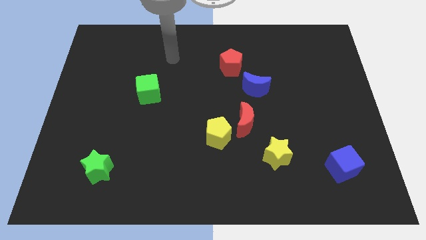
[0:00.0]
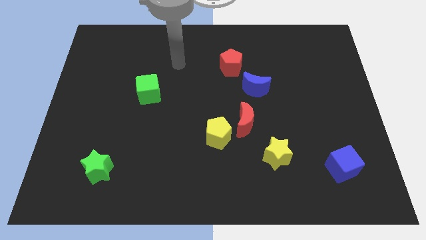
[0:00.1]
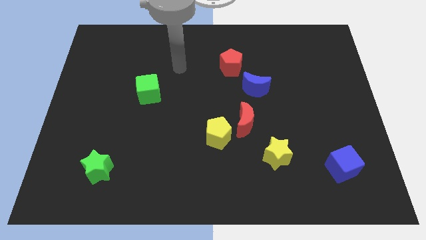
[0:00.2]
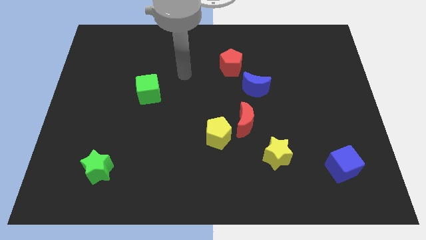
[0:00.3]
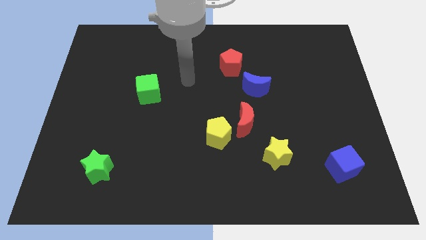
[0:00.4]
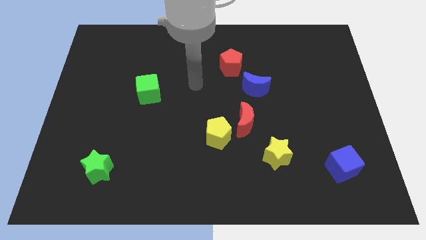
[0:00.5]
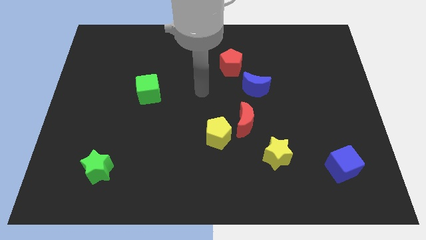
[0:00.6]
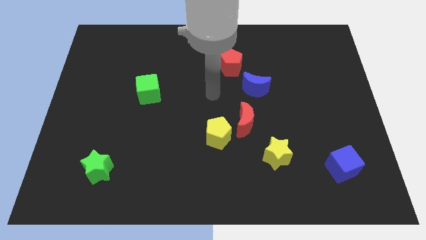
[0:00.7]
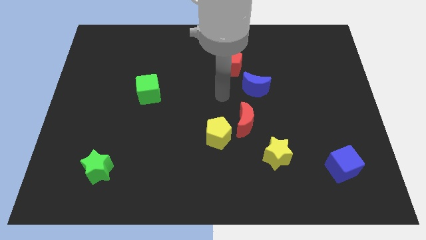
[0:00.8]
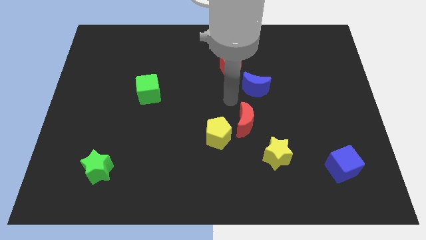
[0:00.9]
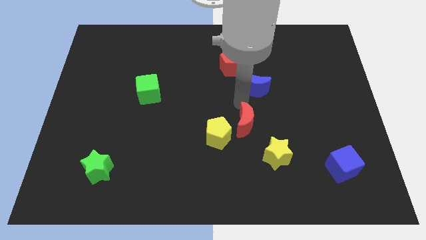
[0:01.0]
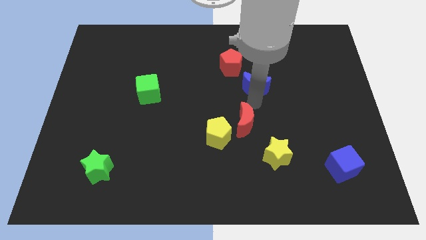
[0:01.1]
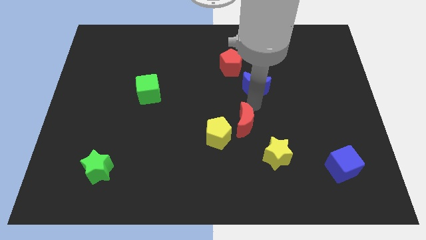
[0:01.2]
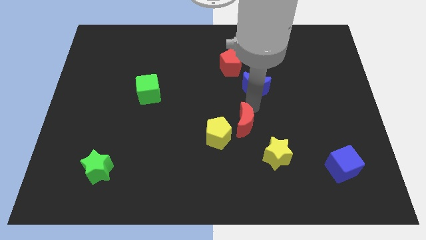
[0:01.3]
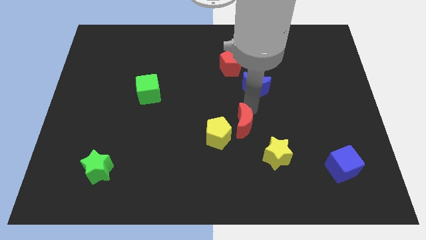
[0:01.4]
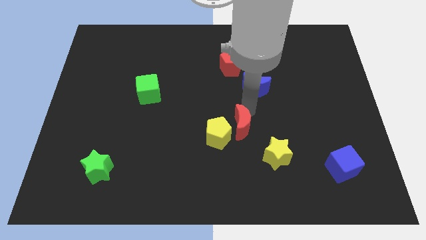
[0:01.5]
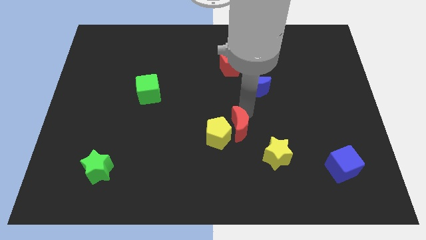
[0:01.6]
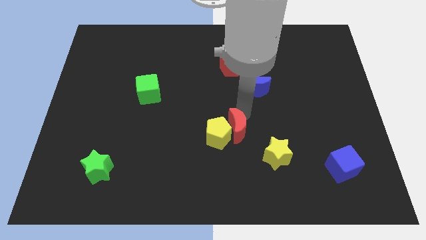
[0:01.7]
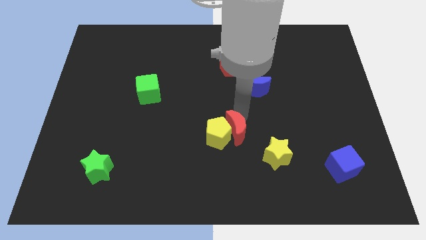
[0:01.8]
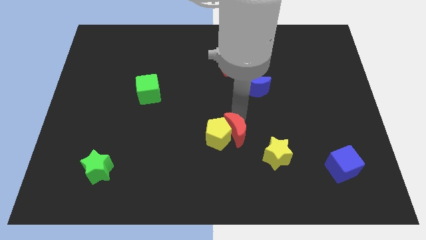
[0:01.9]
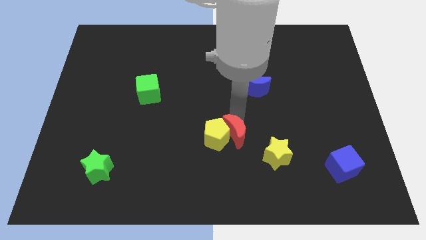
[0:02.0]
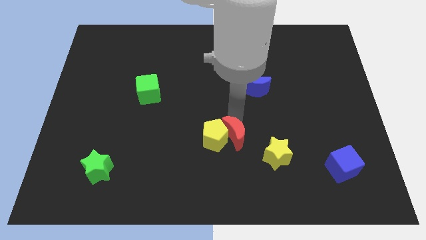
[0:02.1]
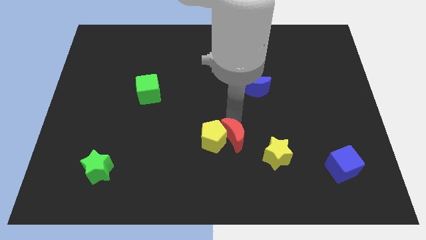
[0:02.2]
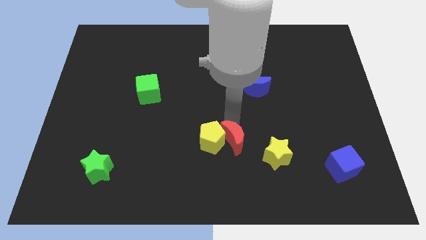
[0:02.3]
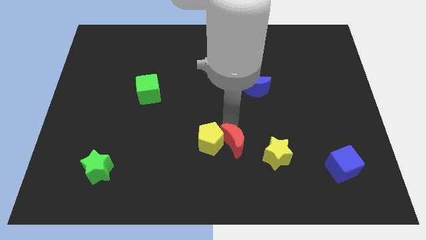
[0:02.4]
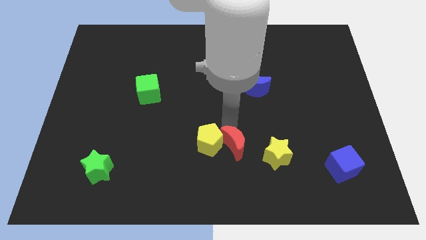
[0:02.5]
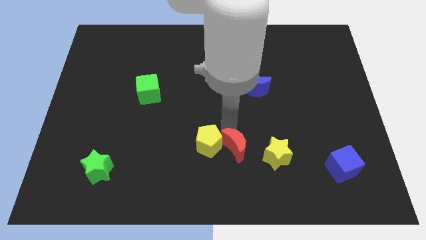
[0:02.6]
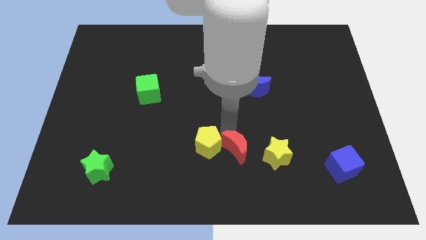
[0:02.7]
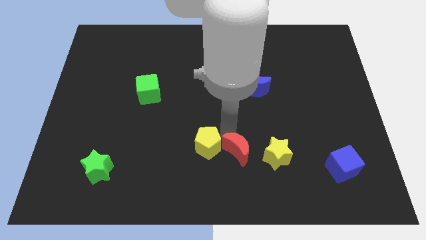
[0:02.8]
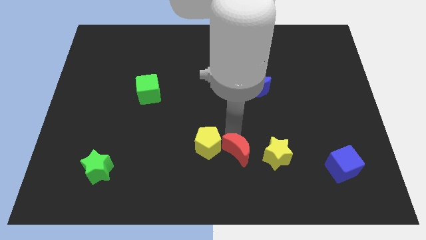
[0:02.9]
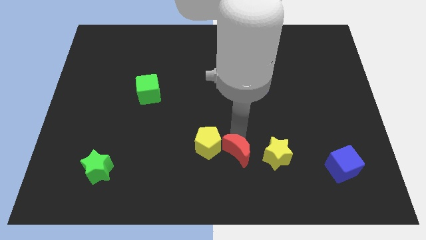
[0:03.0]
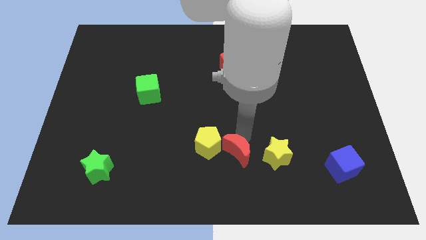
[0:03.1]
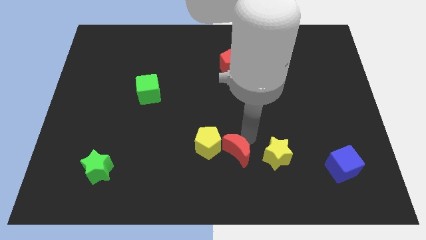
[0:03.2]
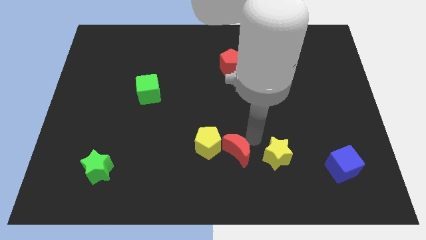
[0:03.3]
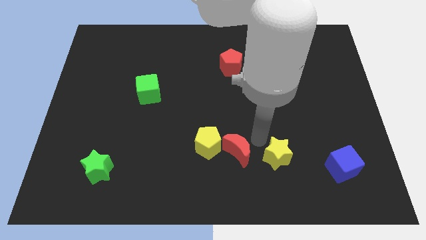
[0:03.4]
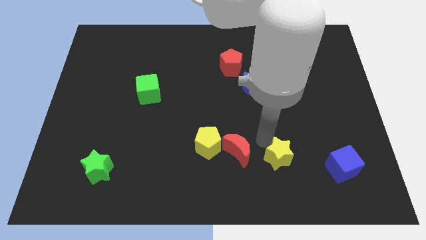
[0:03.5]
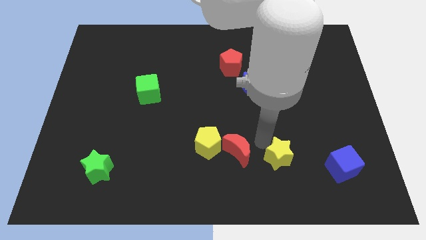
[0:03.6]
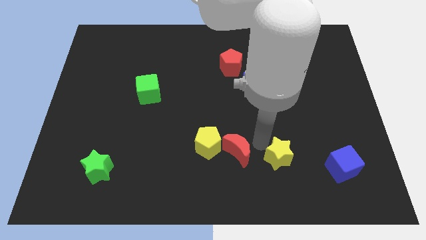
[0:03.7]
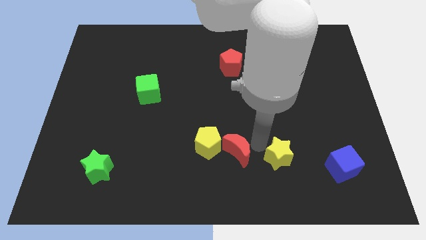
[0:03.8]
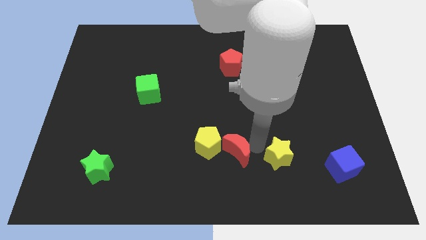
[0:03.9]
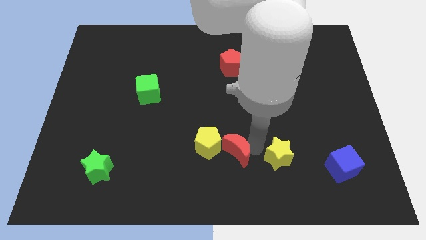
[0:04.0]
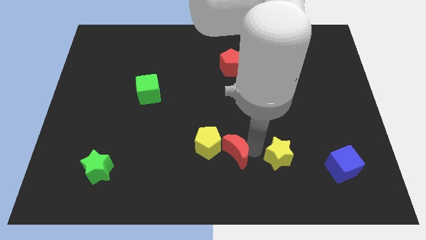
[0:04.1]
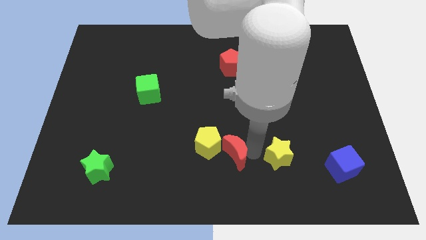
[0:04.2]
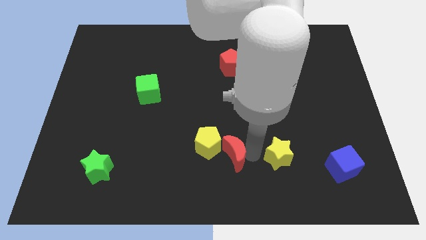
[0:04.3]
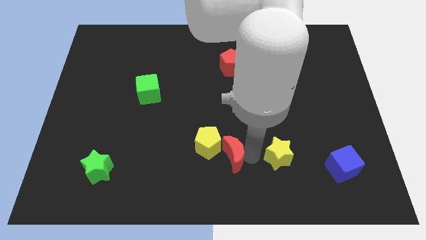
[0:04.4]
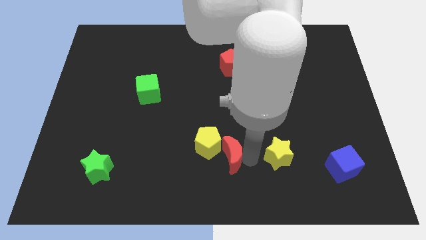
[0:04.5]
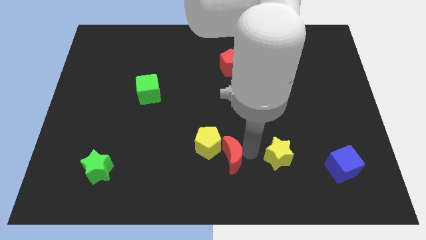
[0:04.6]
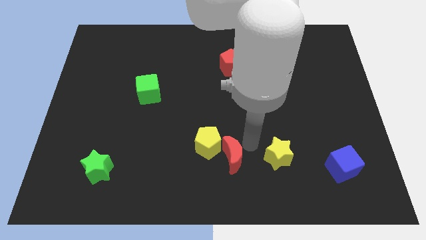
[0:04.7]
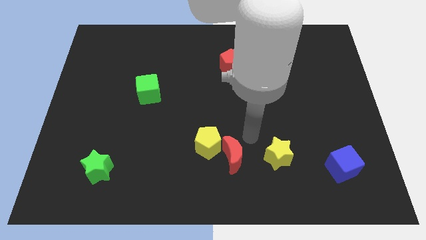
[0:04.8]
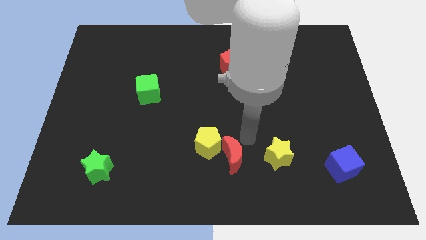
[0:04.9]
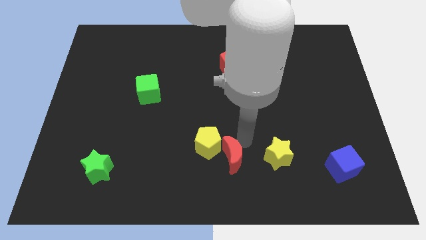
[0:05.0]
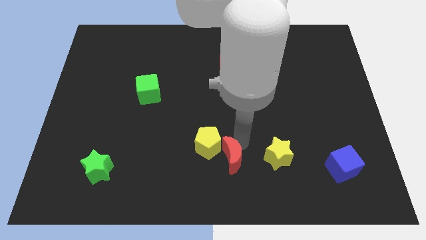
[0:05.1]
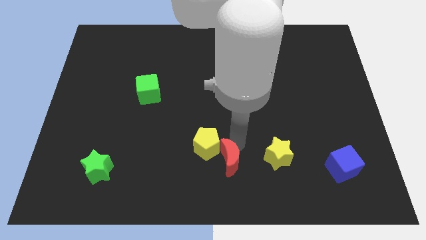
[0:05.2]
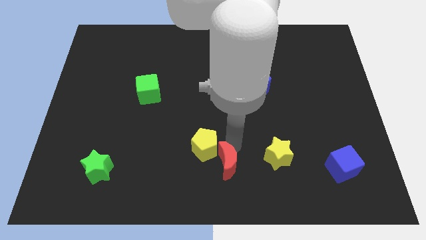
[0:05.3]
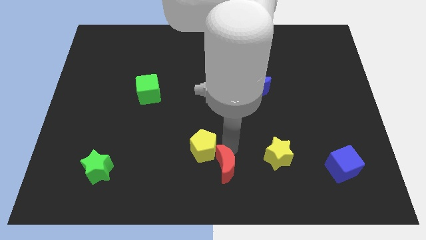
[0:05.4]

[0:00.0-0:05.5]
move the red moon to the bottom side of the yellow pentagon
